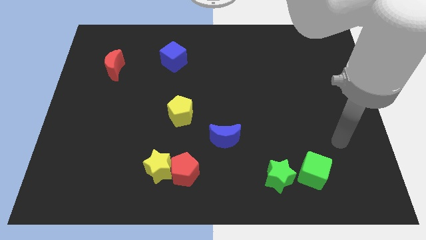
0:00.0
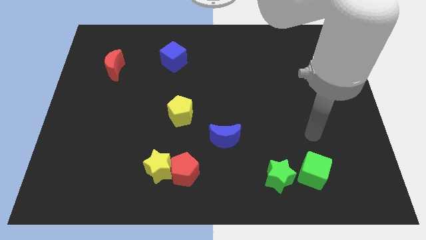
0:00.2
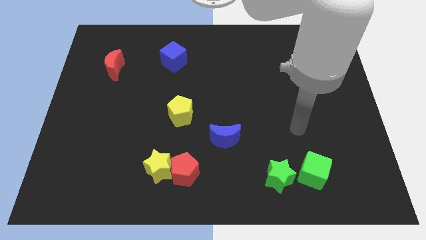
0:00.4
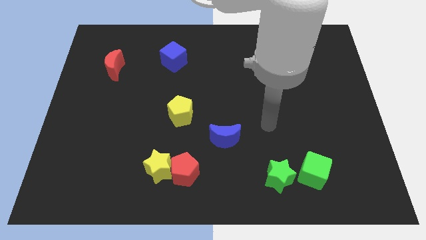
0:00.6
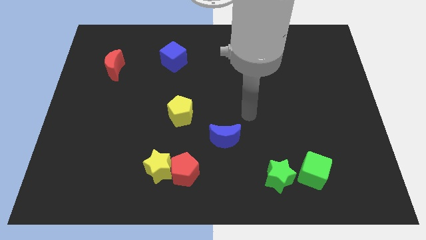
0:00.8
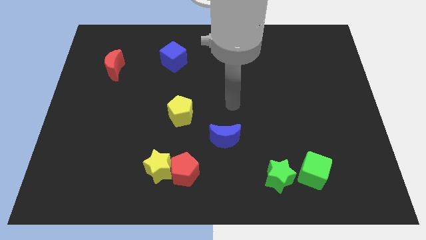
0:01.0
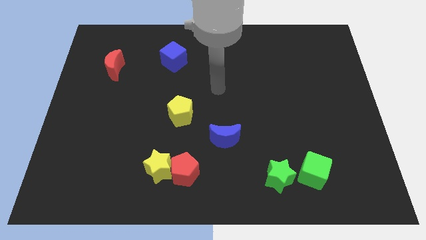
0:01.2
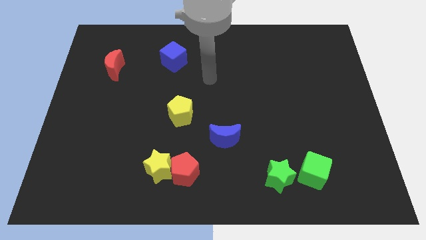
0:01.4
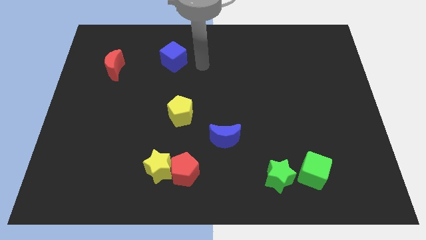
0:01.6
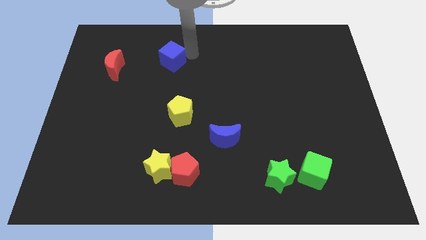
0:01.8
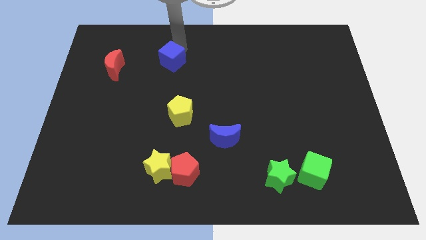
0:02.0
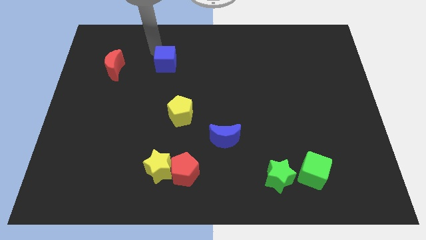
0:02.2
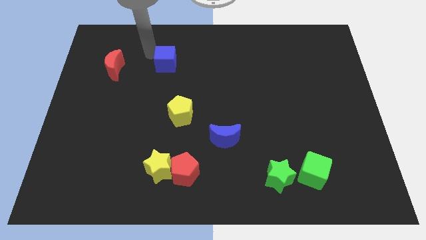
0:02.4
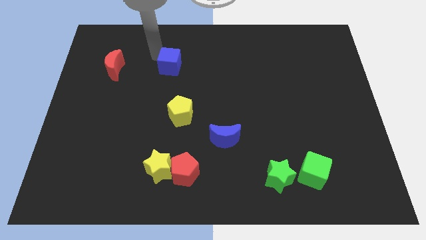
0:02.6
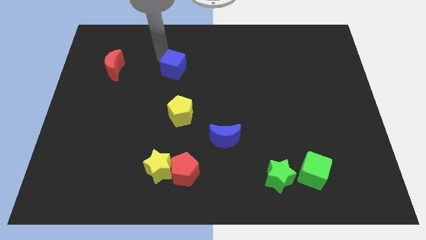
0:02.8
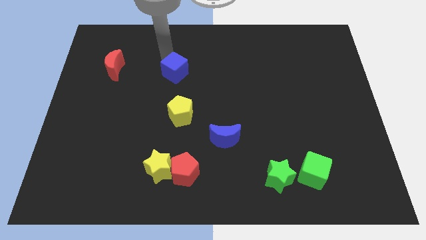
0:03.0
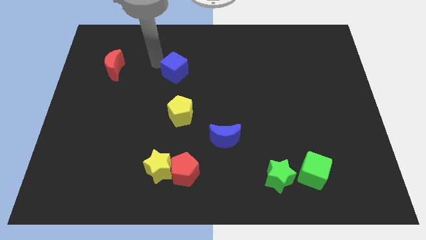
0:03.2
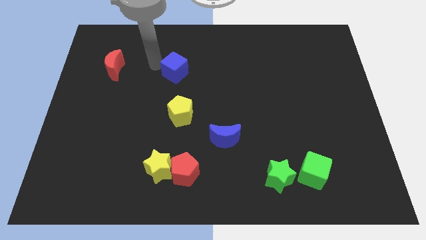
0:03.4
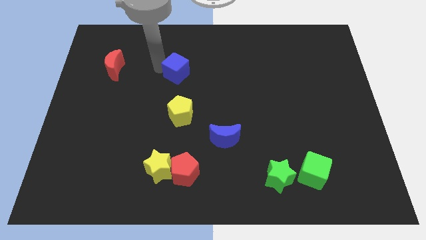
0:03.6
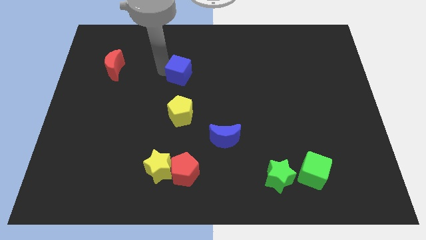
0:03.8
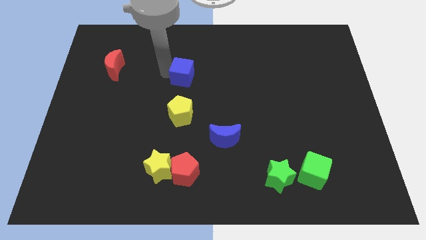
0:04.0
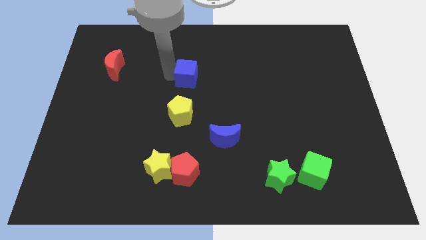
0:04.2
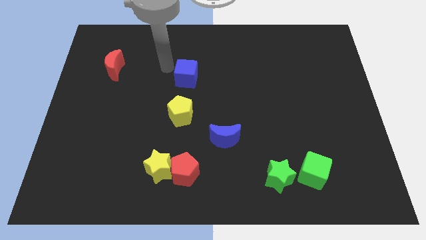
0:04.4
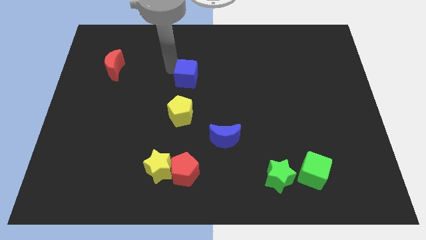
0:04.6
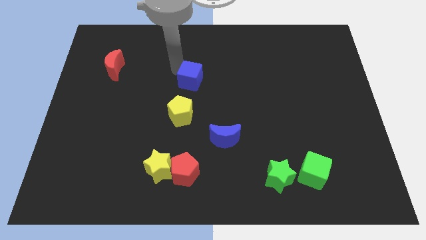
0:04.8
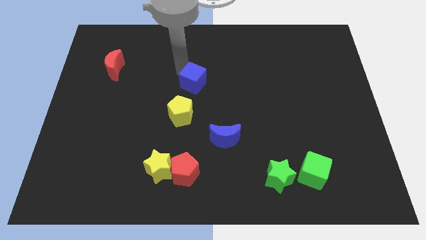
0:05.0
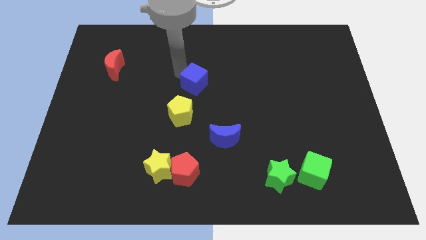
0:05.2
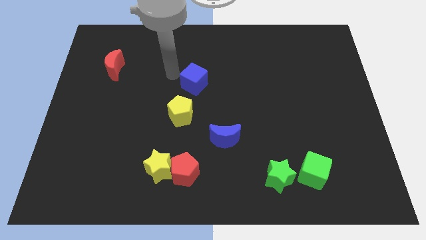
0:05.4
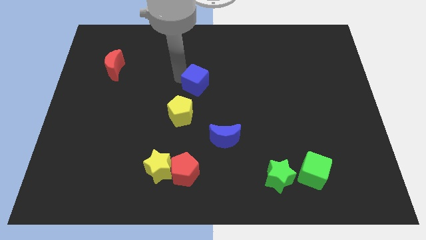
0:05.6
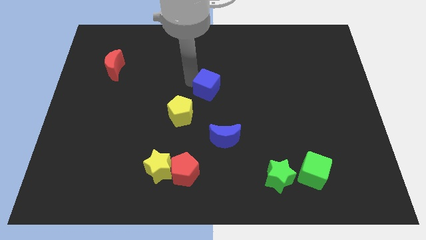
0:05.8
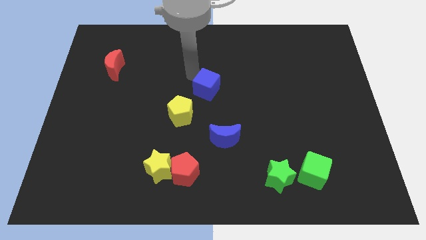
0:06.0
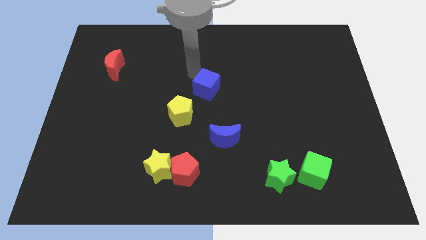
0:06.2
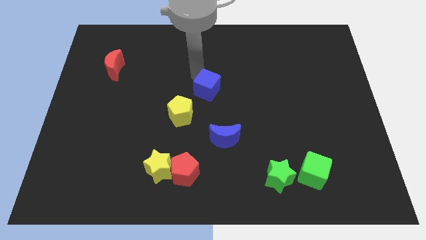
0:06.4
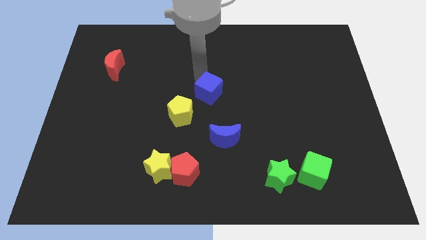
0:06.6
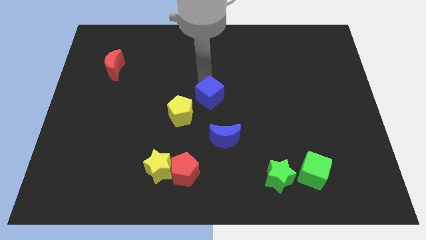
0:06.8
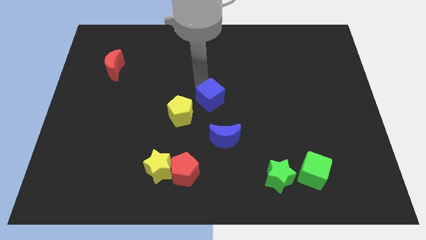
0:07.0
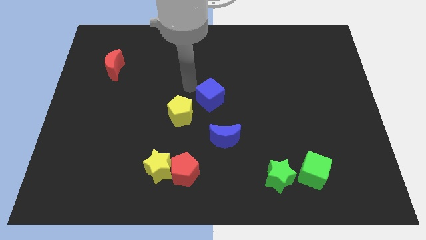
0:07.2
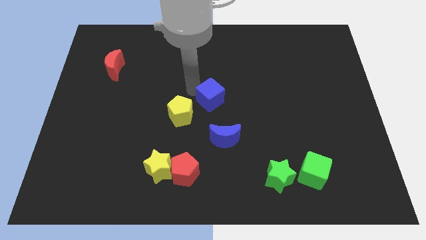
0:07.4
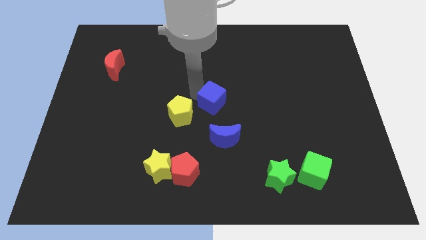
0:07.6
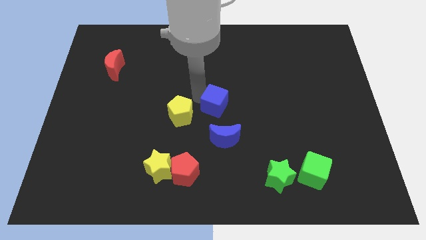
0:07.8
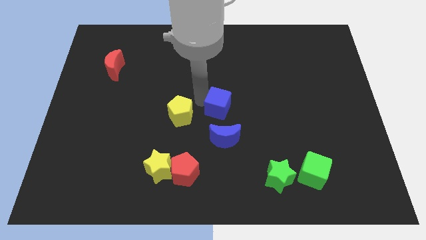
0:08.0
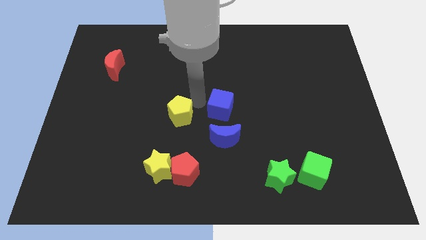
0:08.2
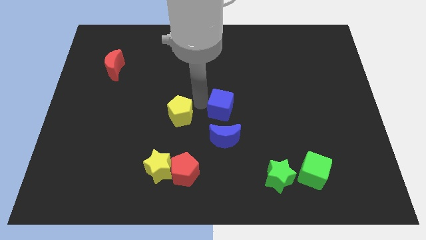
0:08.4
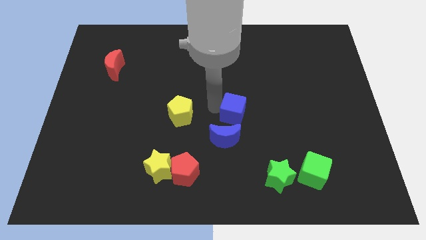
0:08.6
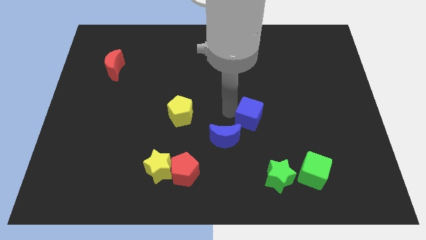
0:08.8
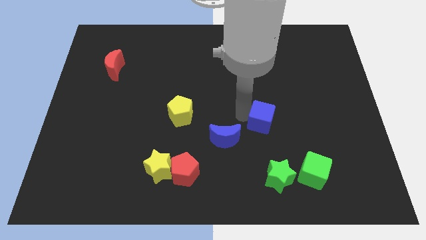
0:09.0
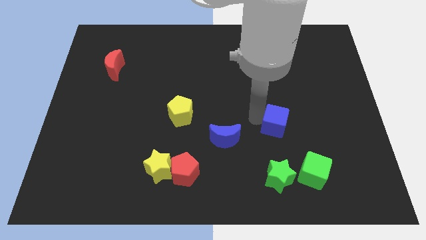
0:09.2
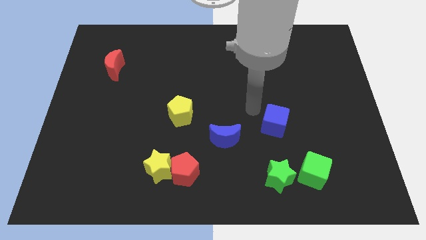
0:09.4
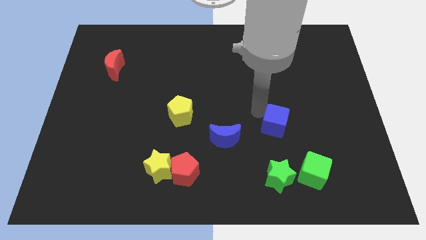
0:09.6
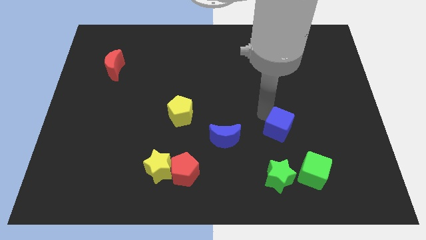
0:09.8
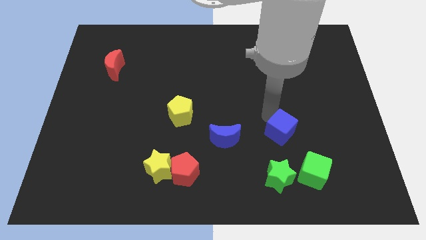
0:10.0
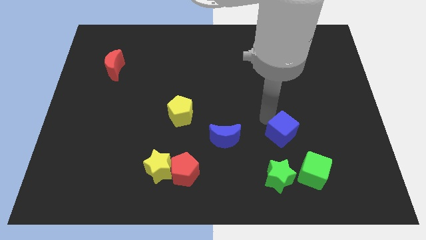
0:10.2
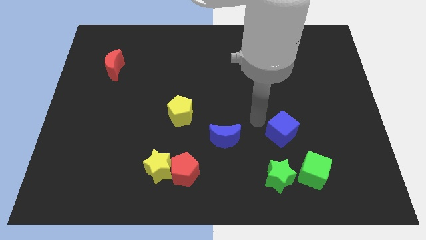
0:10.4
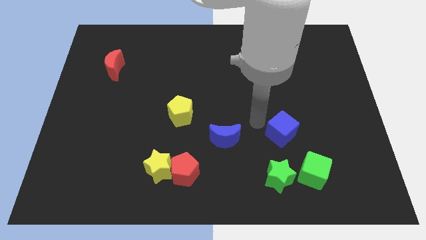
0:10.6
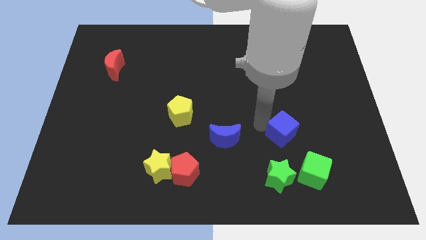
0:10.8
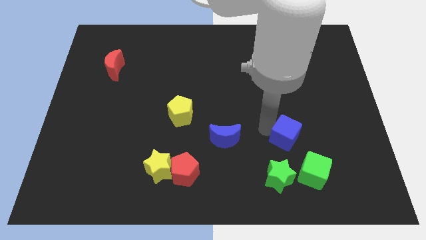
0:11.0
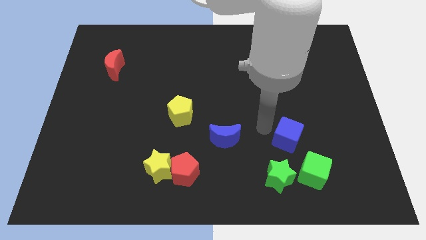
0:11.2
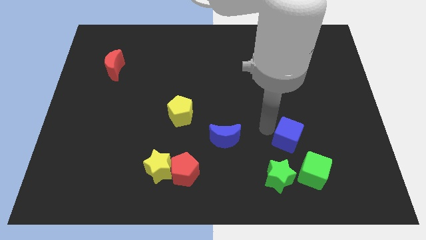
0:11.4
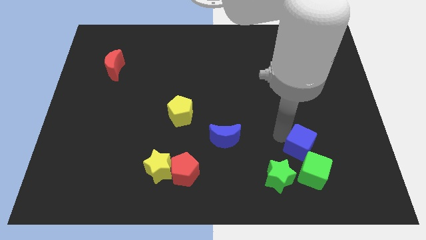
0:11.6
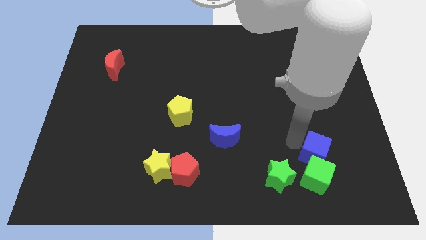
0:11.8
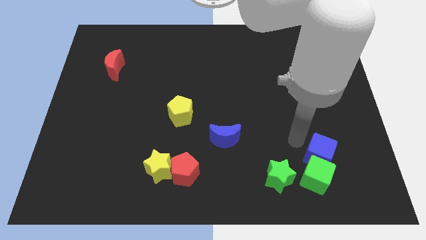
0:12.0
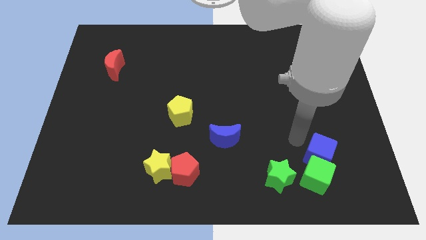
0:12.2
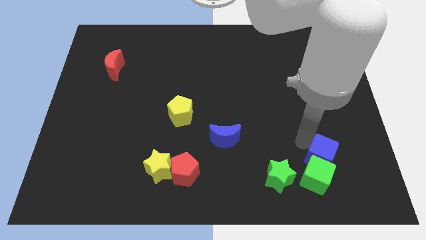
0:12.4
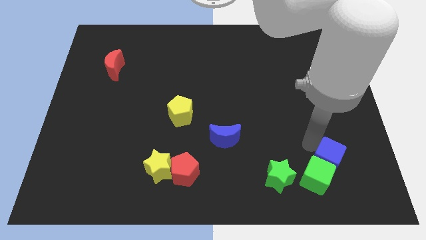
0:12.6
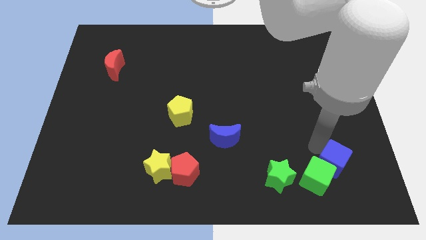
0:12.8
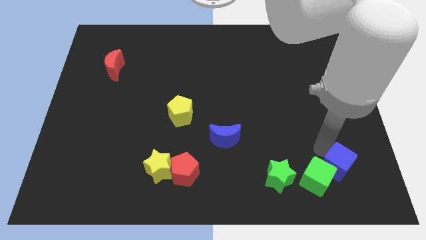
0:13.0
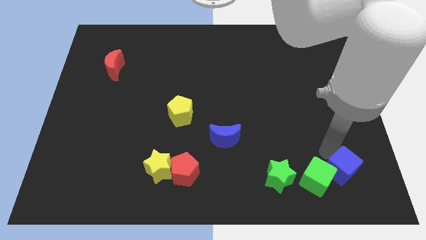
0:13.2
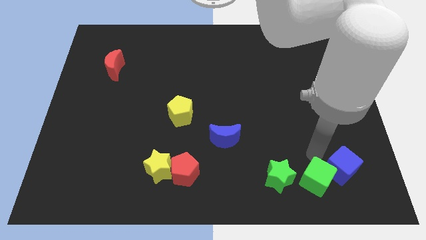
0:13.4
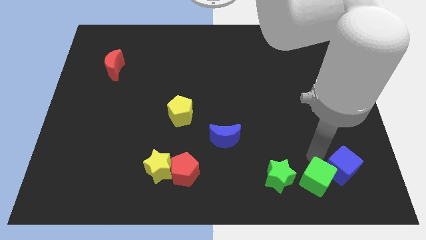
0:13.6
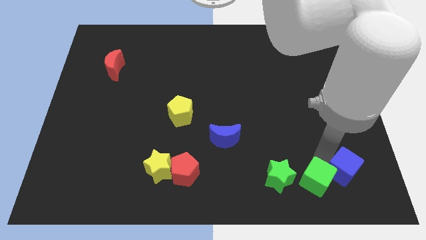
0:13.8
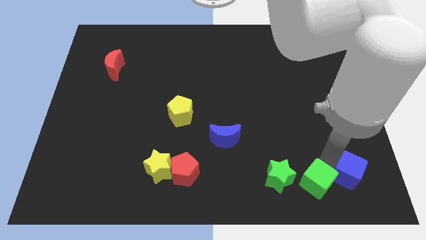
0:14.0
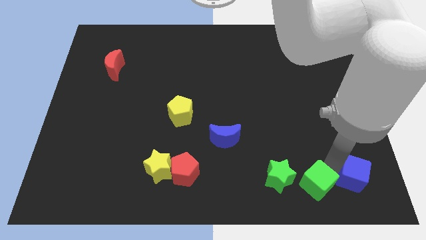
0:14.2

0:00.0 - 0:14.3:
put the blue cube to the bottom right of the board
